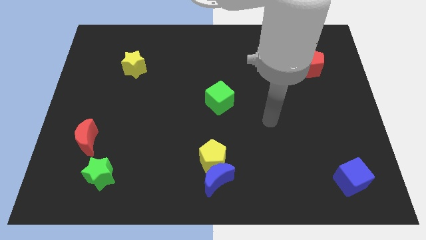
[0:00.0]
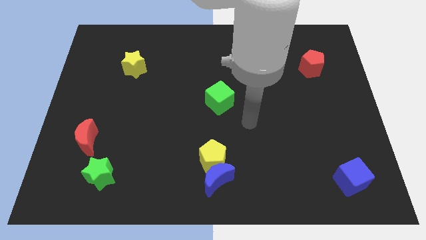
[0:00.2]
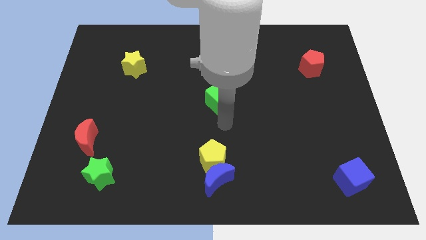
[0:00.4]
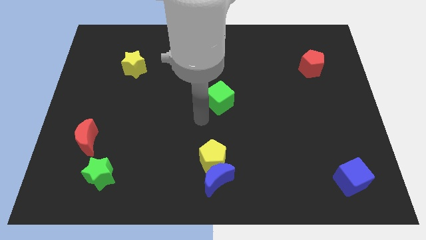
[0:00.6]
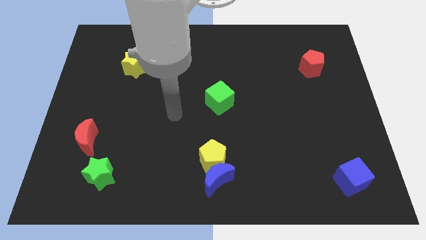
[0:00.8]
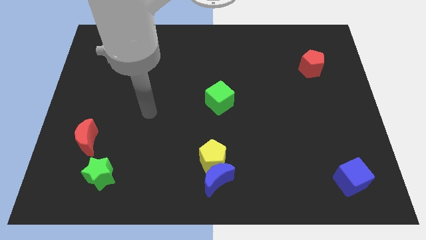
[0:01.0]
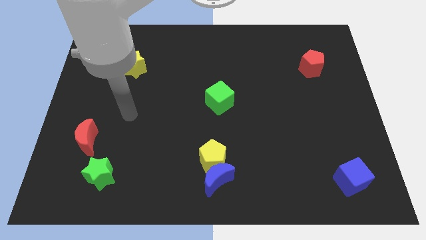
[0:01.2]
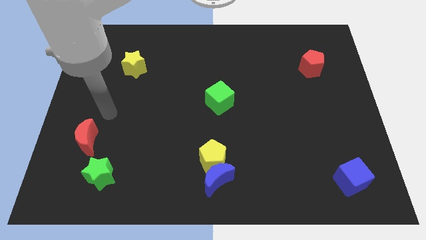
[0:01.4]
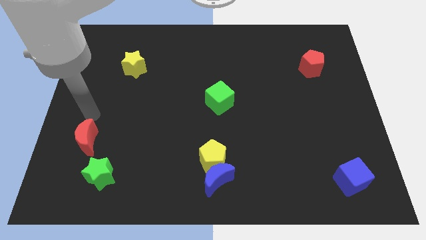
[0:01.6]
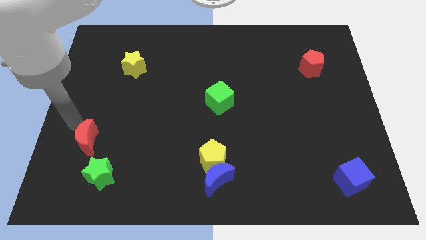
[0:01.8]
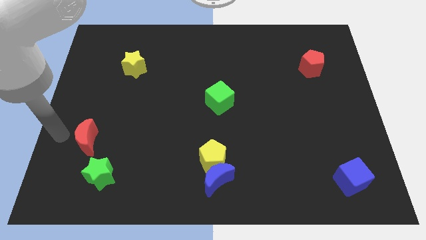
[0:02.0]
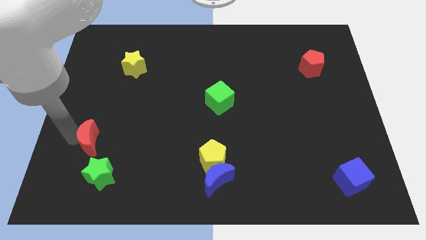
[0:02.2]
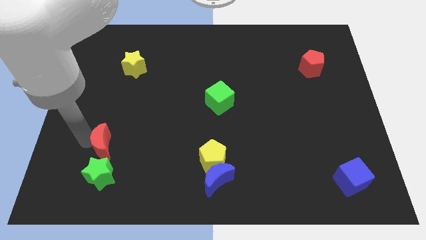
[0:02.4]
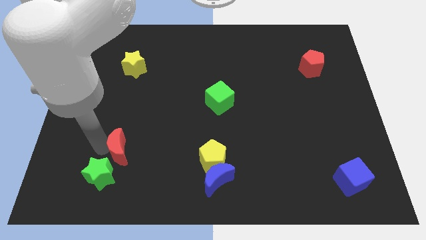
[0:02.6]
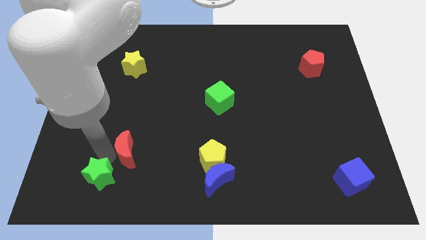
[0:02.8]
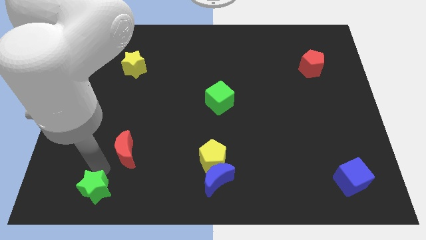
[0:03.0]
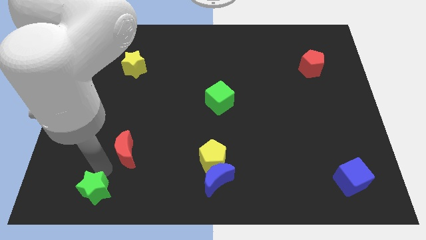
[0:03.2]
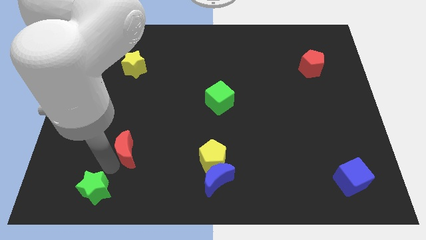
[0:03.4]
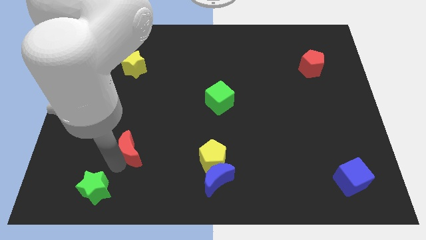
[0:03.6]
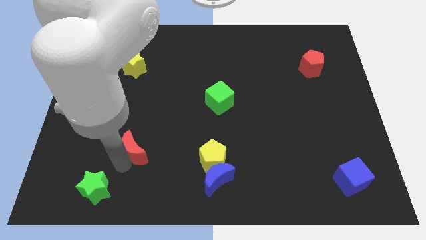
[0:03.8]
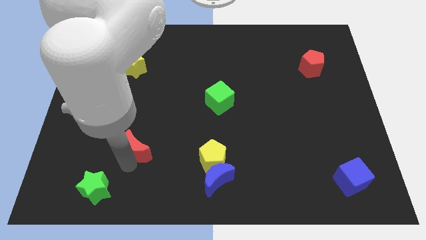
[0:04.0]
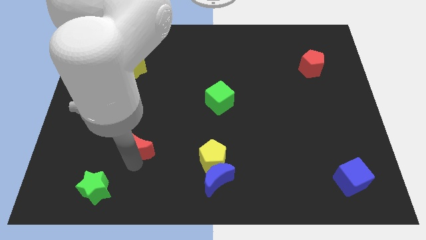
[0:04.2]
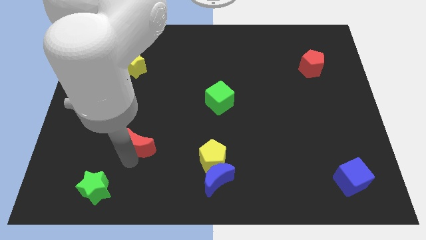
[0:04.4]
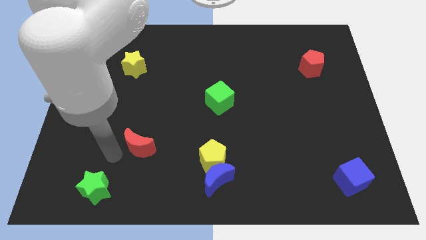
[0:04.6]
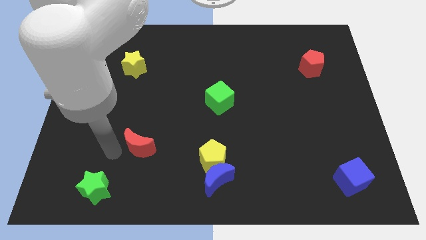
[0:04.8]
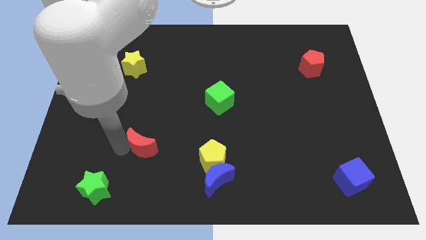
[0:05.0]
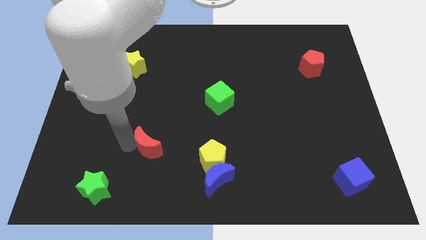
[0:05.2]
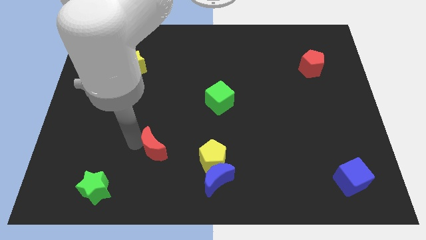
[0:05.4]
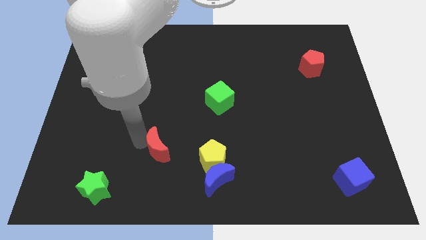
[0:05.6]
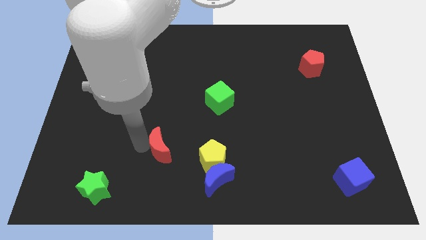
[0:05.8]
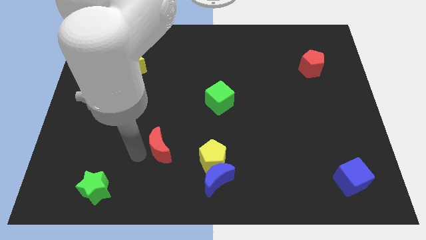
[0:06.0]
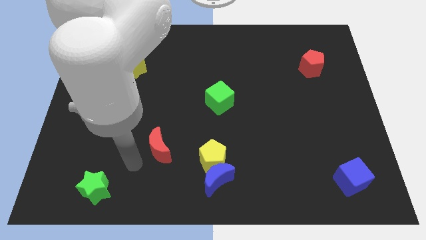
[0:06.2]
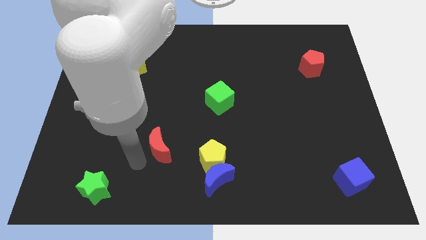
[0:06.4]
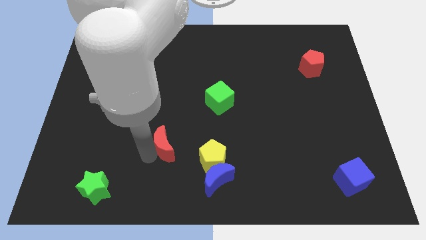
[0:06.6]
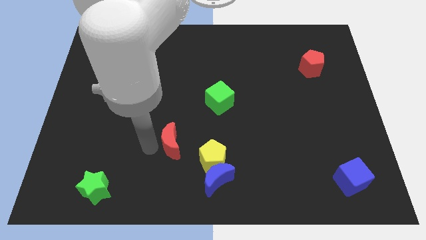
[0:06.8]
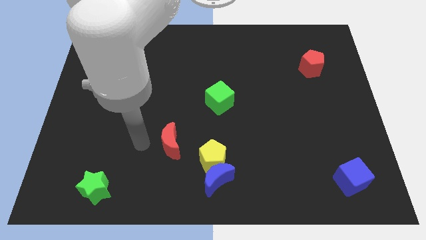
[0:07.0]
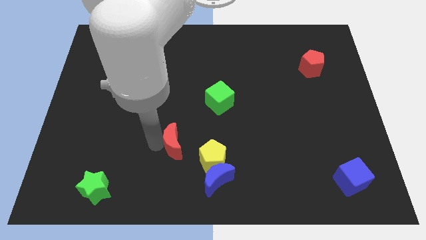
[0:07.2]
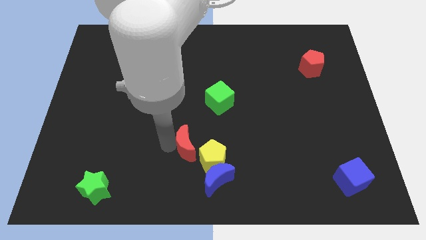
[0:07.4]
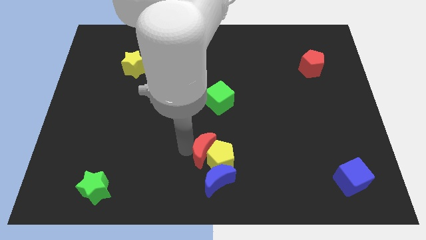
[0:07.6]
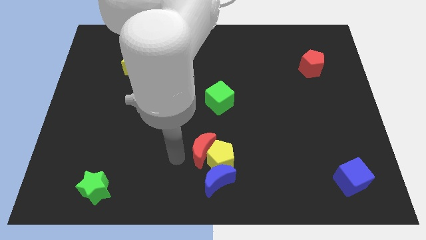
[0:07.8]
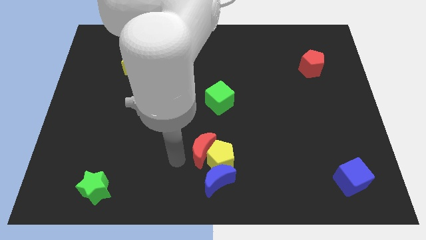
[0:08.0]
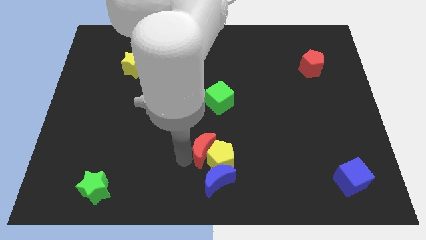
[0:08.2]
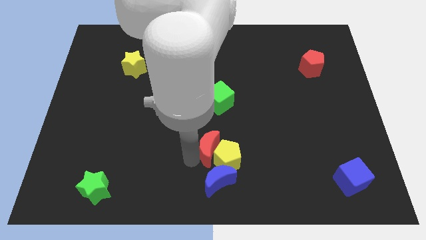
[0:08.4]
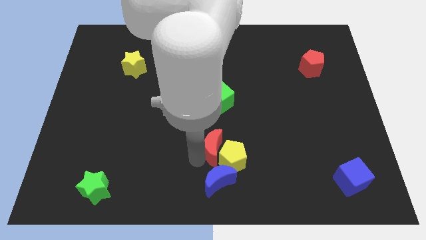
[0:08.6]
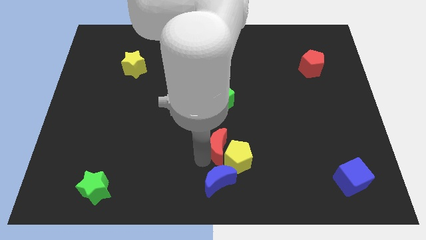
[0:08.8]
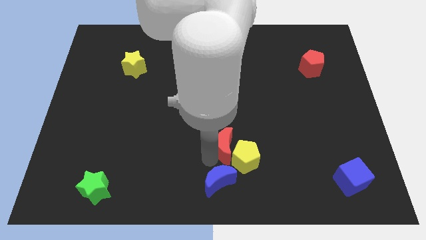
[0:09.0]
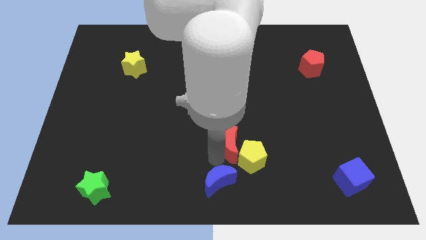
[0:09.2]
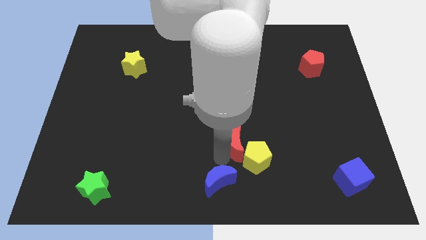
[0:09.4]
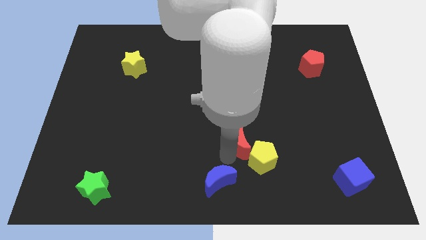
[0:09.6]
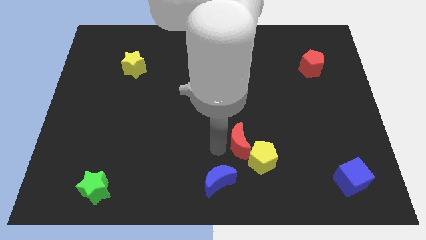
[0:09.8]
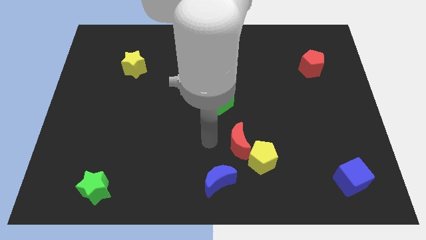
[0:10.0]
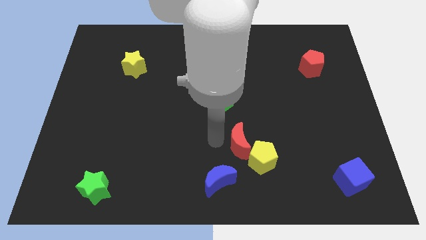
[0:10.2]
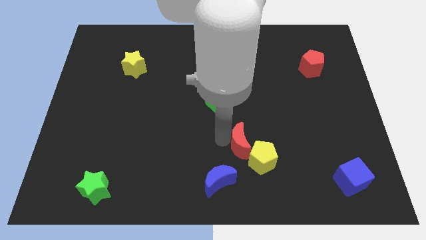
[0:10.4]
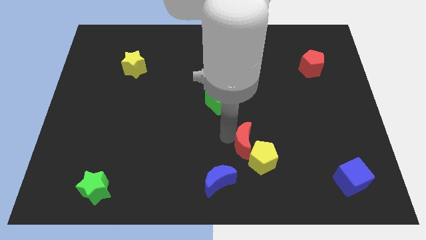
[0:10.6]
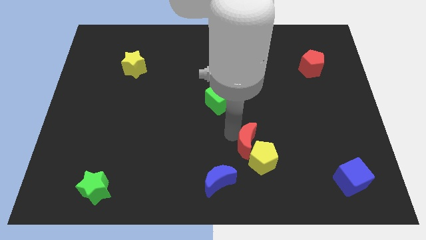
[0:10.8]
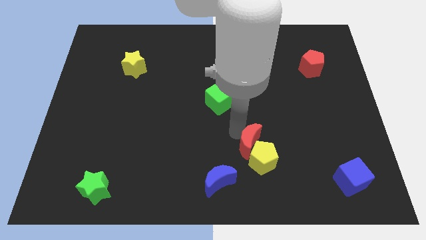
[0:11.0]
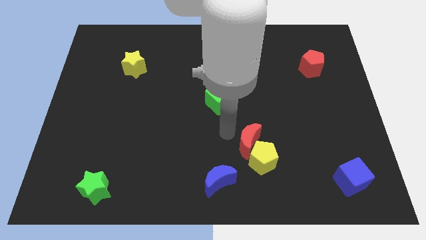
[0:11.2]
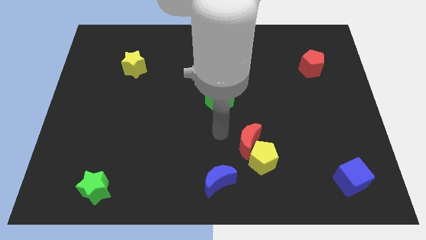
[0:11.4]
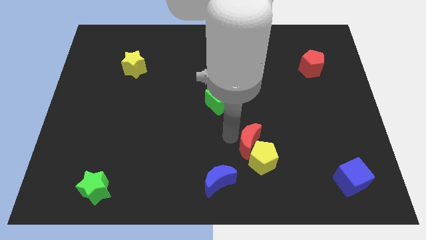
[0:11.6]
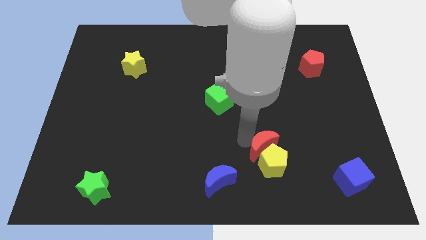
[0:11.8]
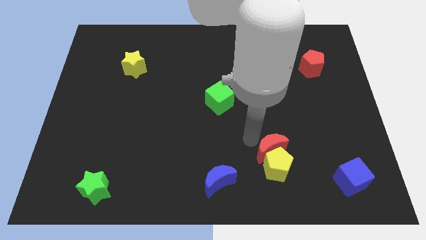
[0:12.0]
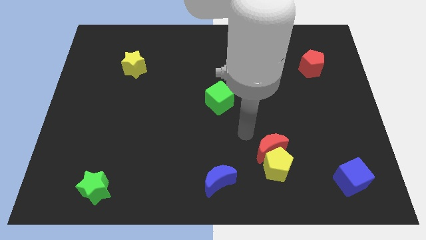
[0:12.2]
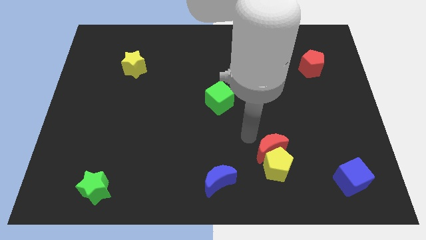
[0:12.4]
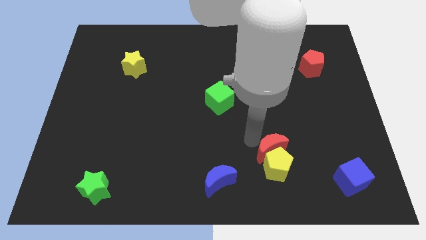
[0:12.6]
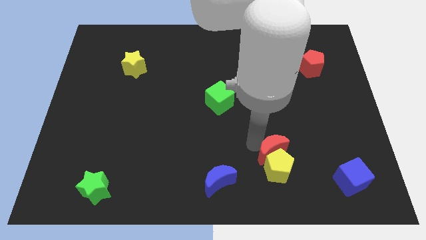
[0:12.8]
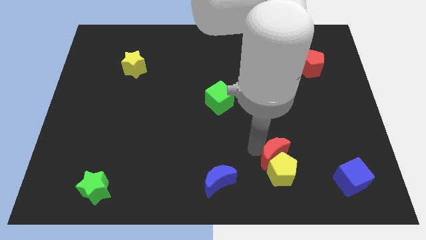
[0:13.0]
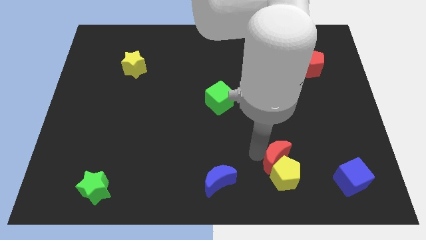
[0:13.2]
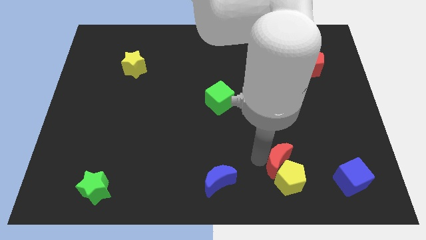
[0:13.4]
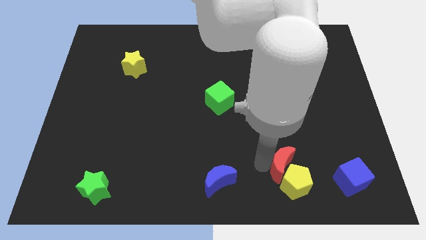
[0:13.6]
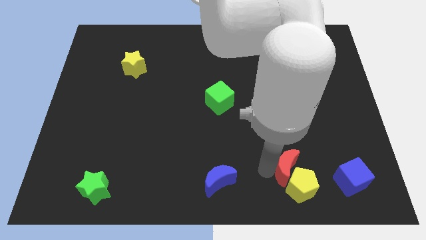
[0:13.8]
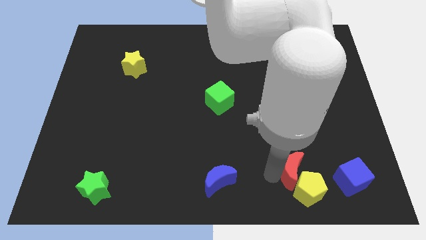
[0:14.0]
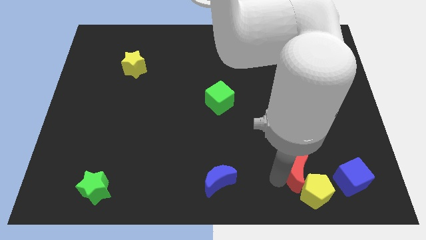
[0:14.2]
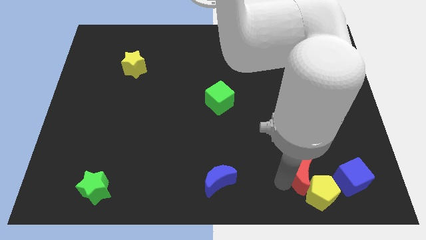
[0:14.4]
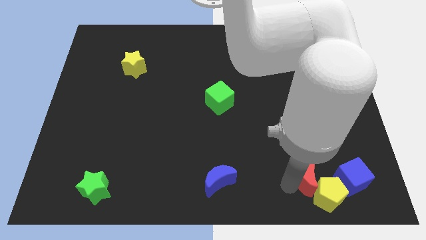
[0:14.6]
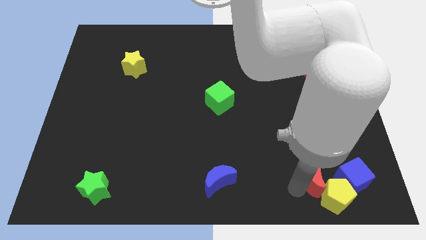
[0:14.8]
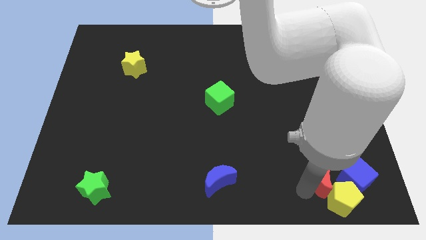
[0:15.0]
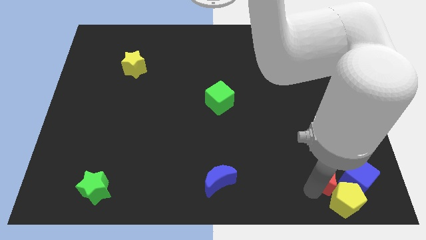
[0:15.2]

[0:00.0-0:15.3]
slide the red moon towards the blue cube
